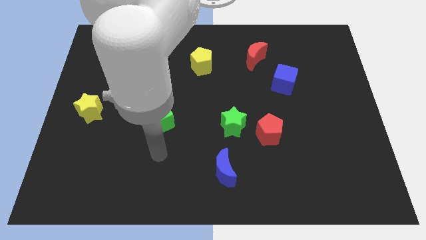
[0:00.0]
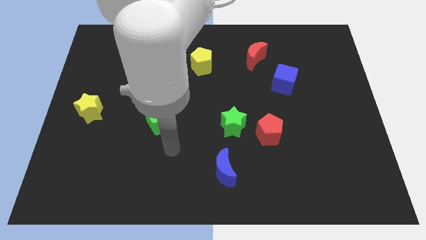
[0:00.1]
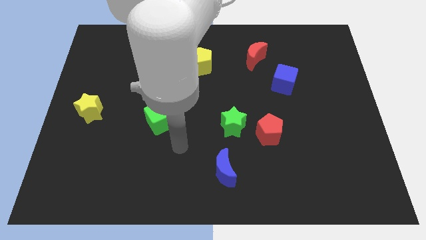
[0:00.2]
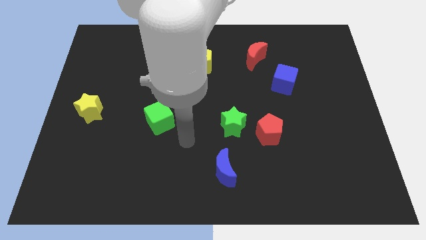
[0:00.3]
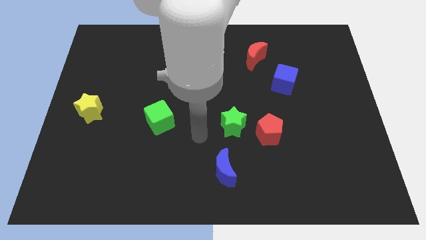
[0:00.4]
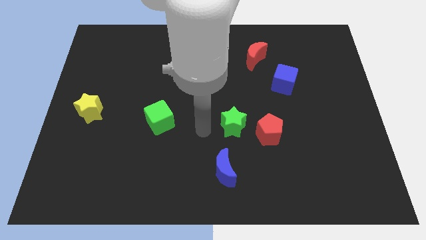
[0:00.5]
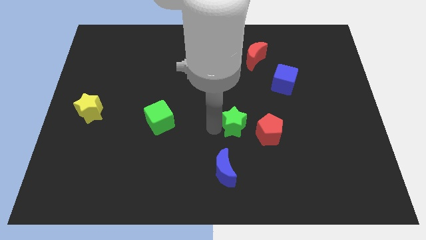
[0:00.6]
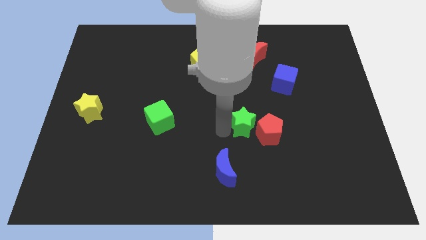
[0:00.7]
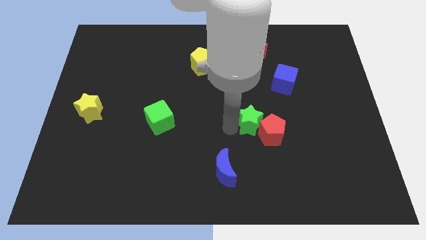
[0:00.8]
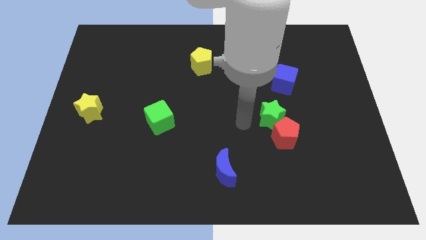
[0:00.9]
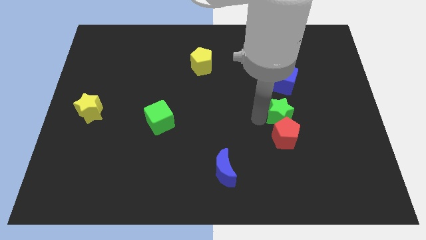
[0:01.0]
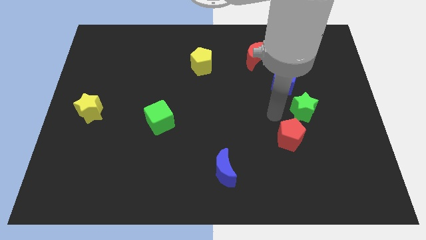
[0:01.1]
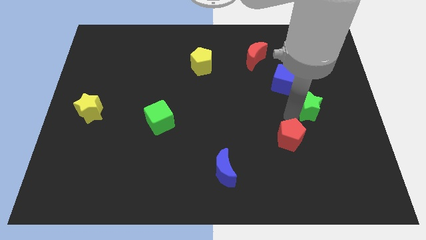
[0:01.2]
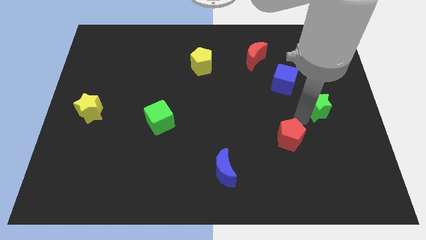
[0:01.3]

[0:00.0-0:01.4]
pull the red pentagon apart from the green star

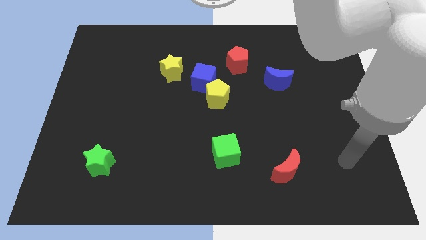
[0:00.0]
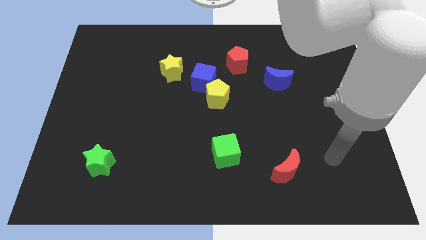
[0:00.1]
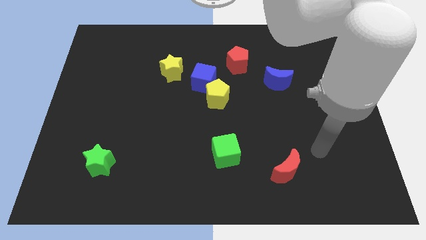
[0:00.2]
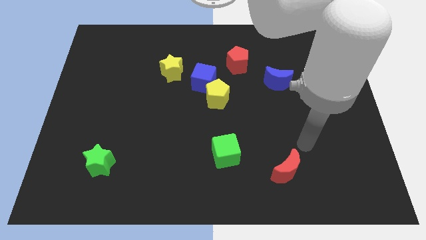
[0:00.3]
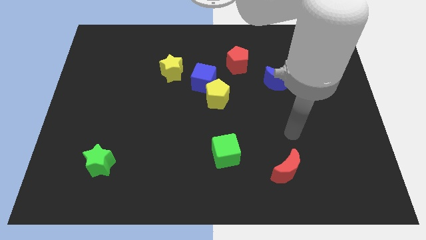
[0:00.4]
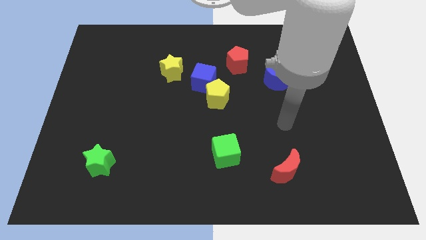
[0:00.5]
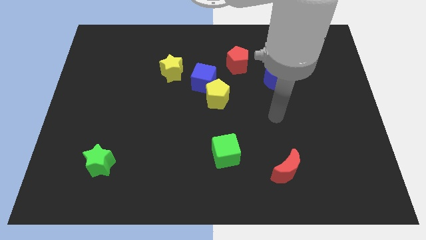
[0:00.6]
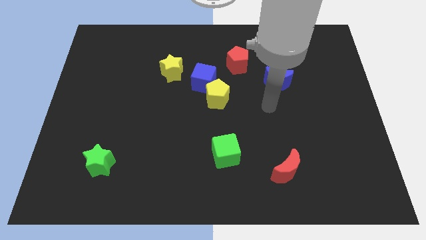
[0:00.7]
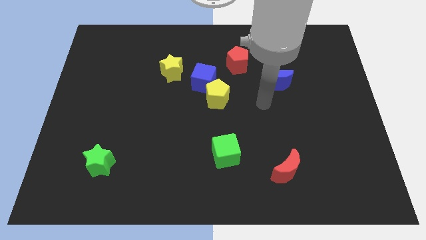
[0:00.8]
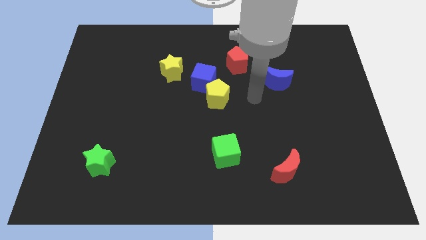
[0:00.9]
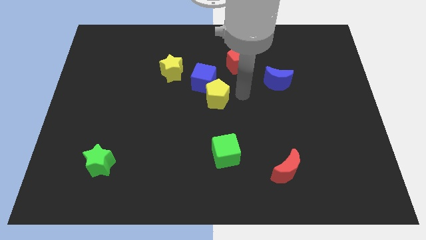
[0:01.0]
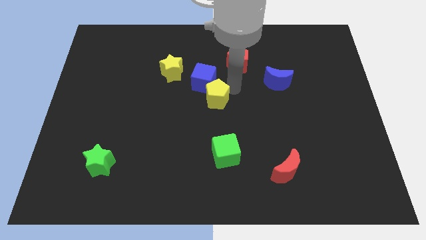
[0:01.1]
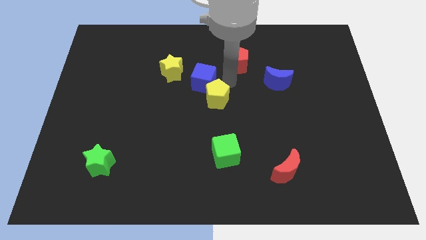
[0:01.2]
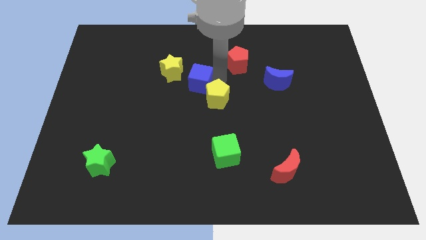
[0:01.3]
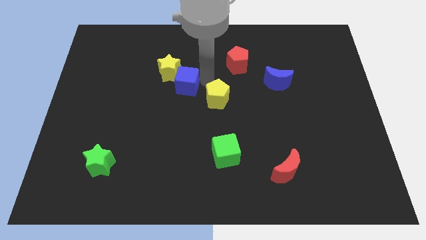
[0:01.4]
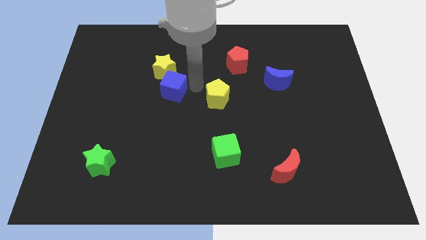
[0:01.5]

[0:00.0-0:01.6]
separate the yellow pentagon from the blue cube

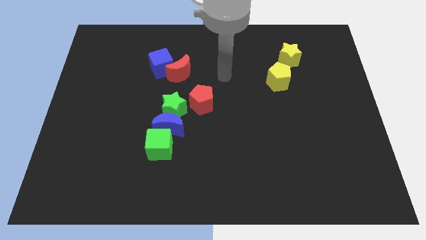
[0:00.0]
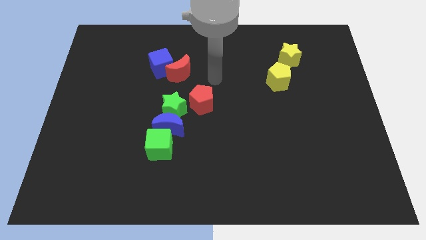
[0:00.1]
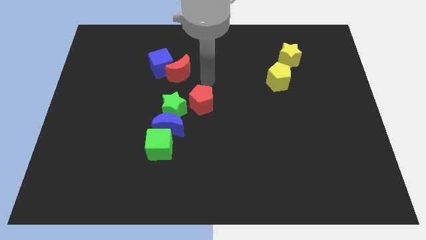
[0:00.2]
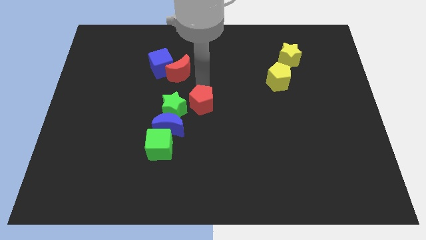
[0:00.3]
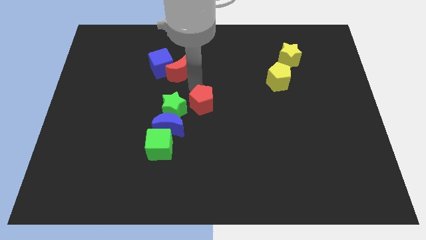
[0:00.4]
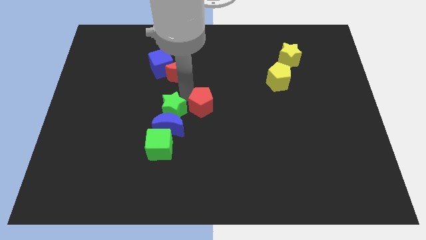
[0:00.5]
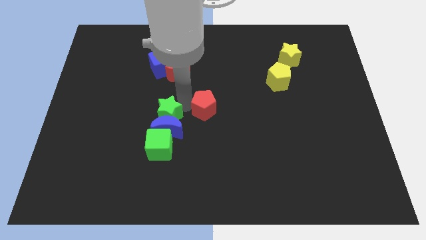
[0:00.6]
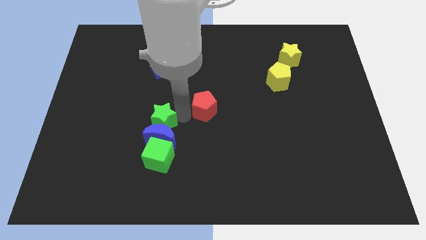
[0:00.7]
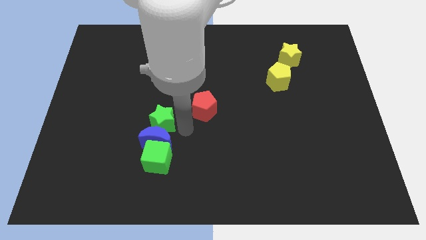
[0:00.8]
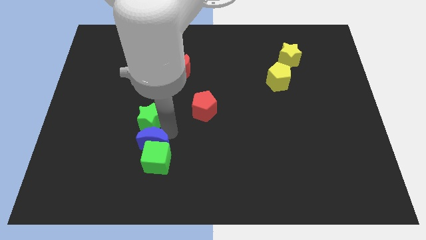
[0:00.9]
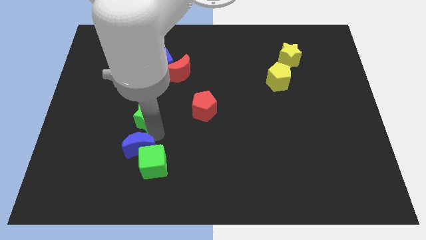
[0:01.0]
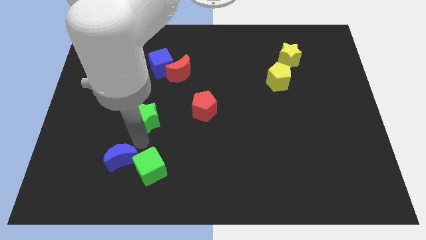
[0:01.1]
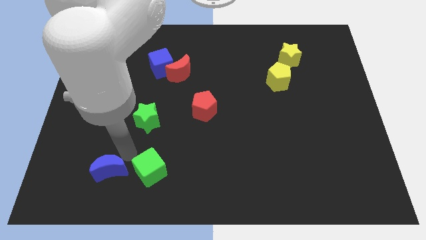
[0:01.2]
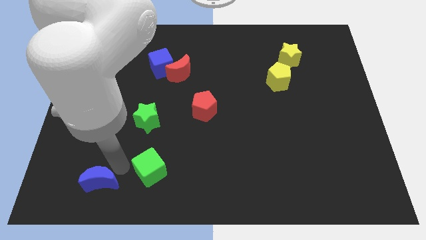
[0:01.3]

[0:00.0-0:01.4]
move the green cube away from the blue moon

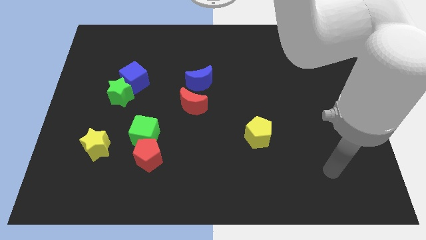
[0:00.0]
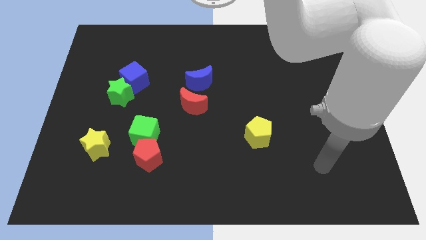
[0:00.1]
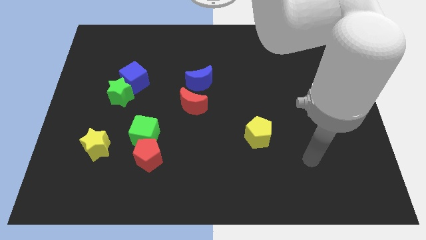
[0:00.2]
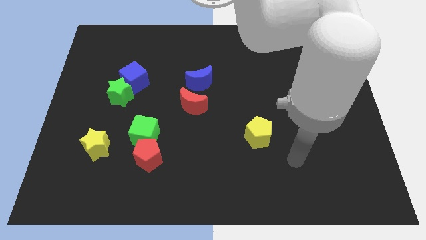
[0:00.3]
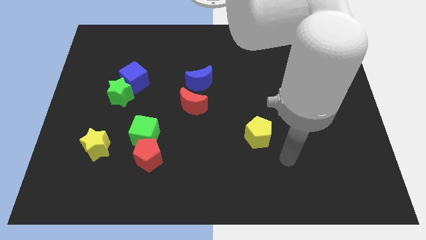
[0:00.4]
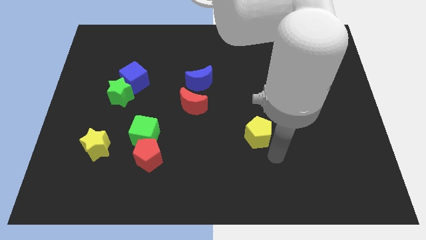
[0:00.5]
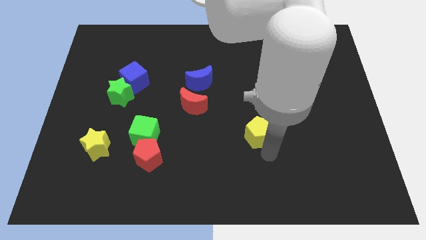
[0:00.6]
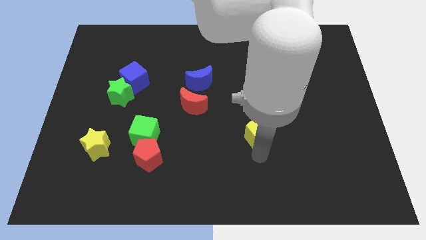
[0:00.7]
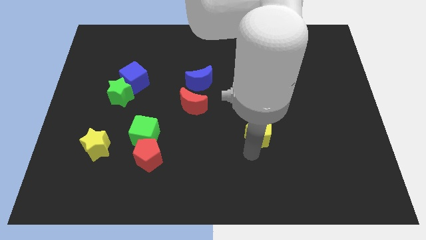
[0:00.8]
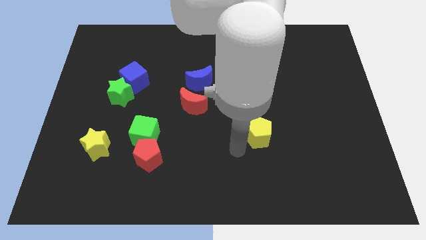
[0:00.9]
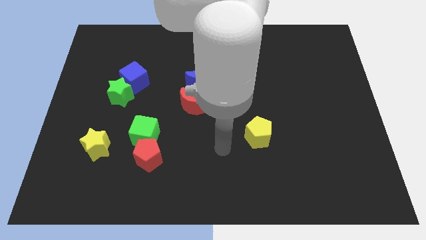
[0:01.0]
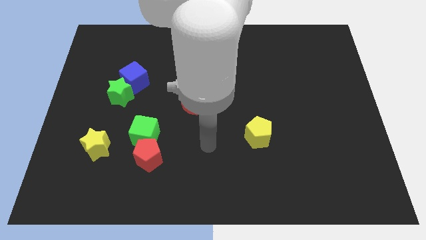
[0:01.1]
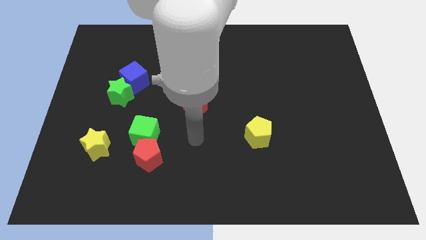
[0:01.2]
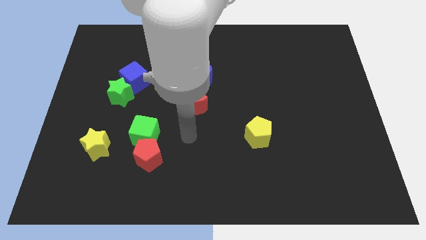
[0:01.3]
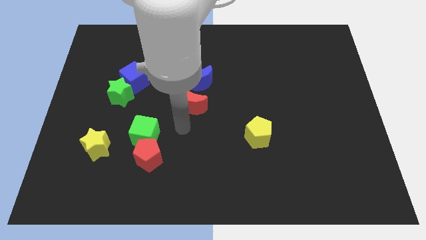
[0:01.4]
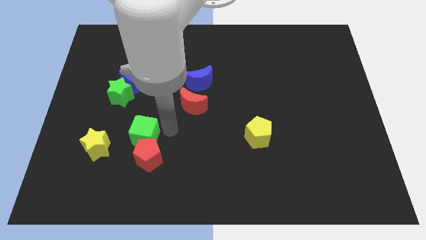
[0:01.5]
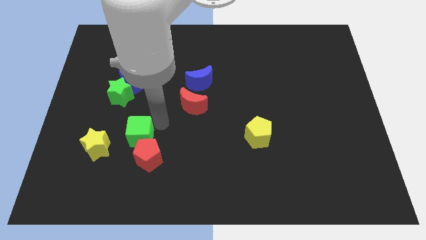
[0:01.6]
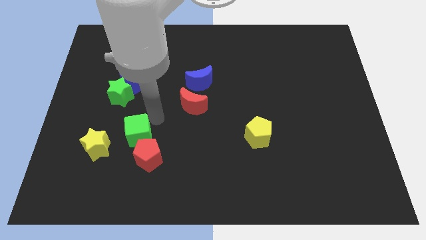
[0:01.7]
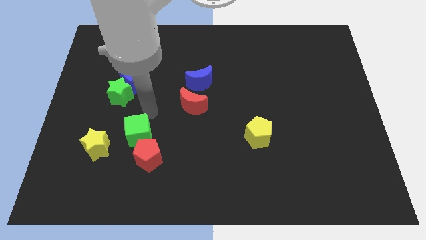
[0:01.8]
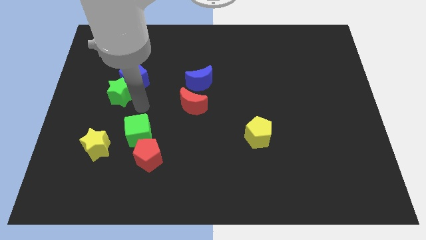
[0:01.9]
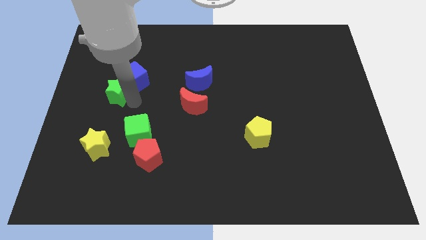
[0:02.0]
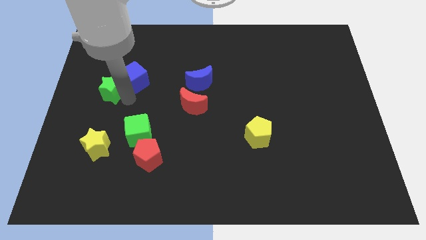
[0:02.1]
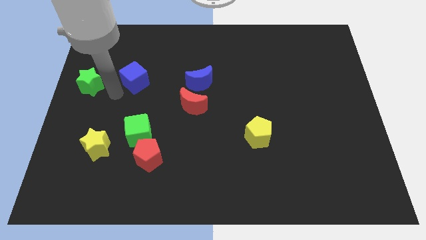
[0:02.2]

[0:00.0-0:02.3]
pull the blue cube apart from the green star

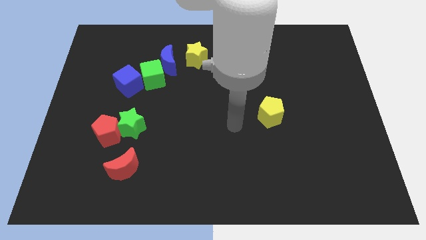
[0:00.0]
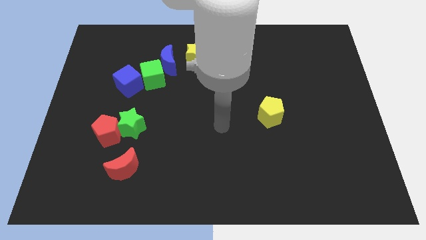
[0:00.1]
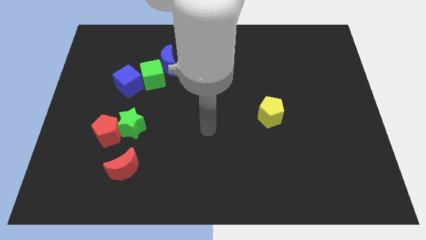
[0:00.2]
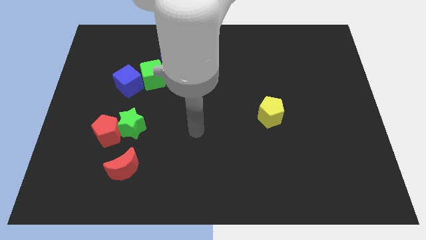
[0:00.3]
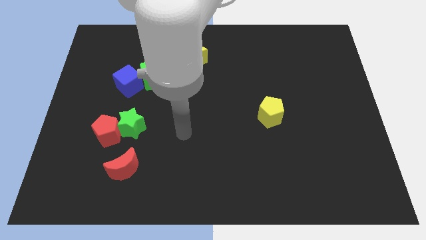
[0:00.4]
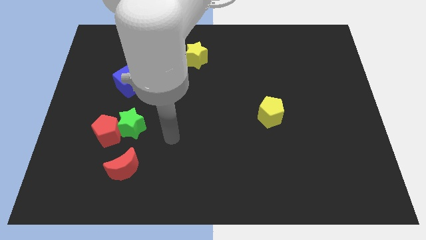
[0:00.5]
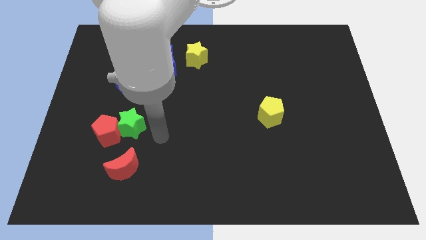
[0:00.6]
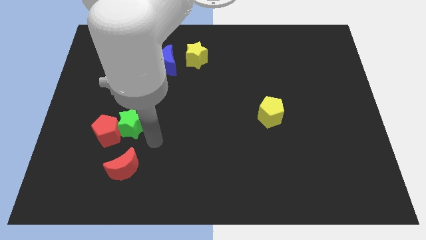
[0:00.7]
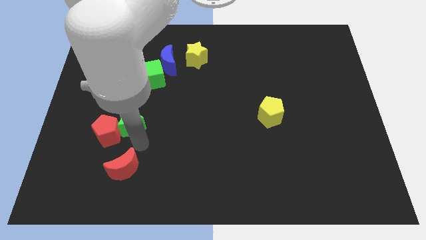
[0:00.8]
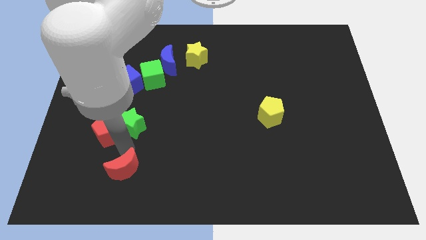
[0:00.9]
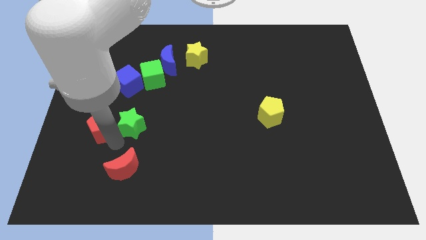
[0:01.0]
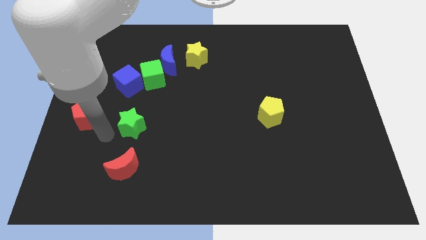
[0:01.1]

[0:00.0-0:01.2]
pull the green star apart from the red pentagon

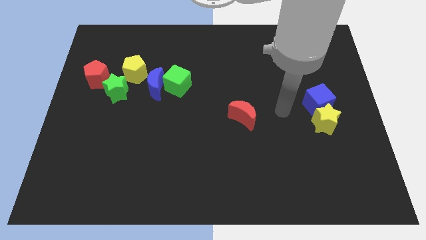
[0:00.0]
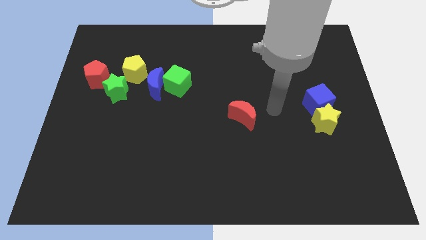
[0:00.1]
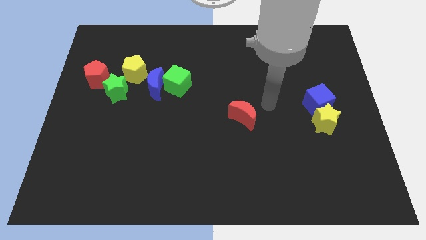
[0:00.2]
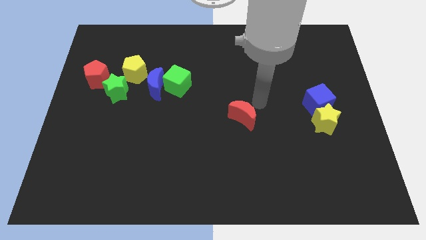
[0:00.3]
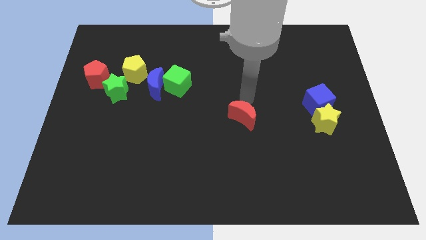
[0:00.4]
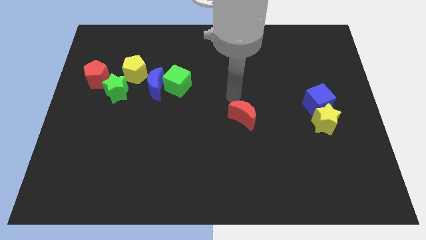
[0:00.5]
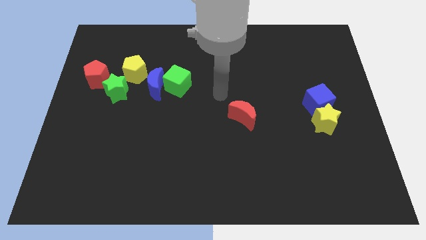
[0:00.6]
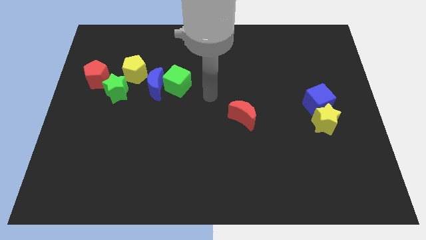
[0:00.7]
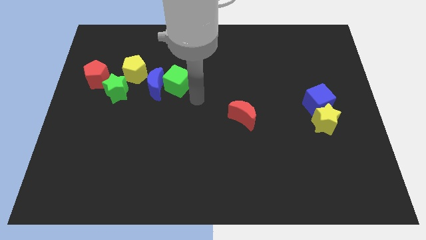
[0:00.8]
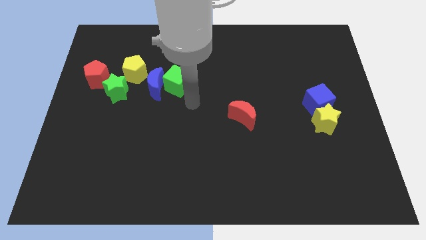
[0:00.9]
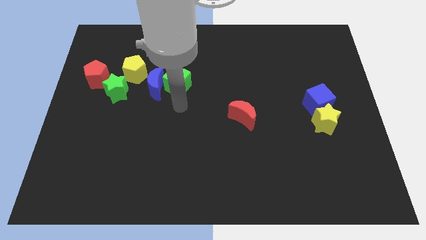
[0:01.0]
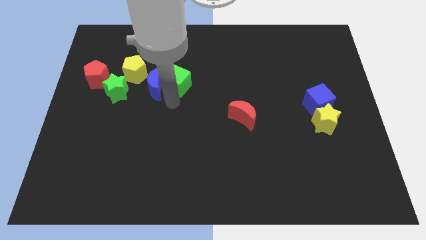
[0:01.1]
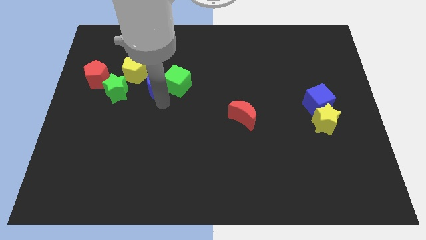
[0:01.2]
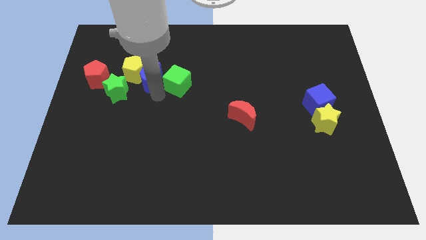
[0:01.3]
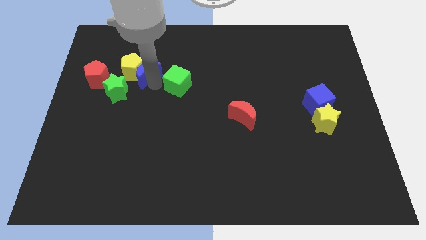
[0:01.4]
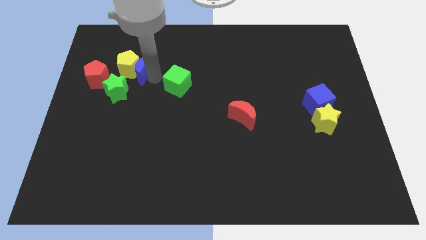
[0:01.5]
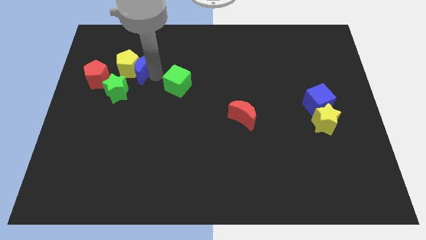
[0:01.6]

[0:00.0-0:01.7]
pull the green cube apart from the blue moon
